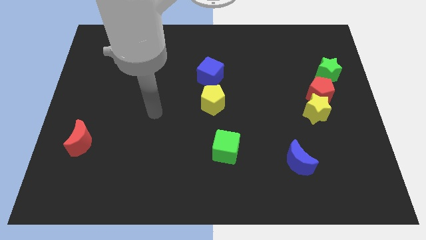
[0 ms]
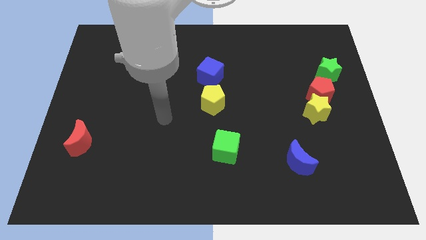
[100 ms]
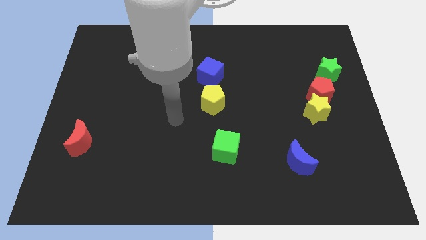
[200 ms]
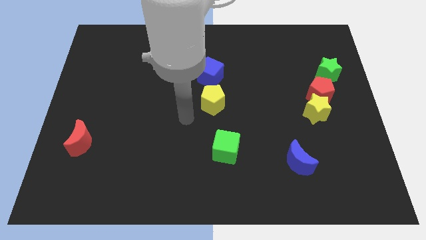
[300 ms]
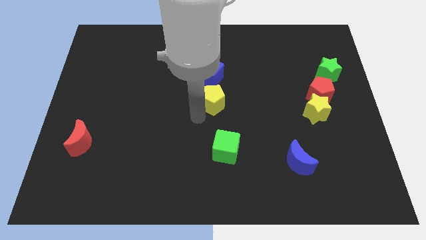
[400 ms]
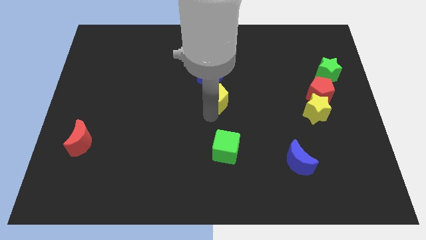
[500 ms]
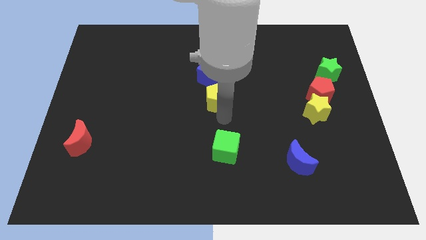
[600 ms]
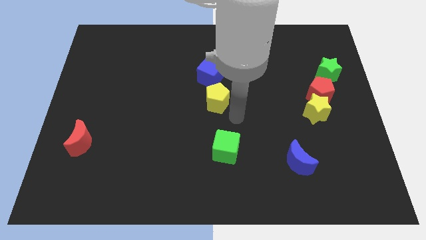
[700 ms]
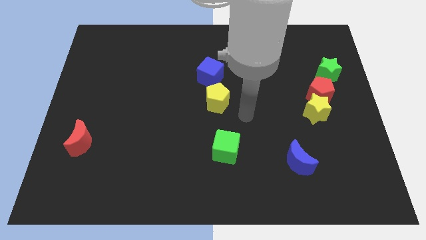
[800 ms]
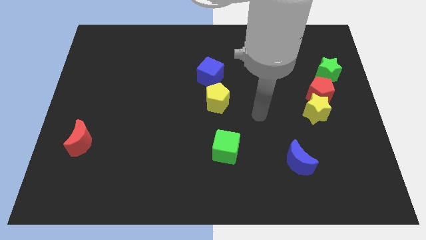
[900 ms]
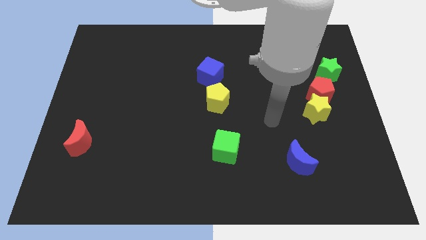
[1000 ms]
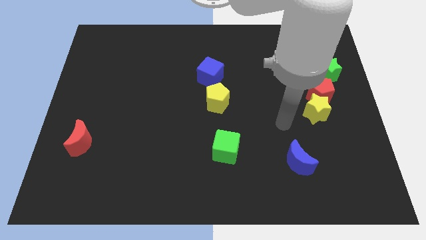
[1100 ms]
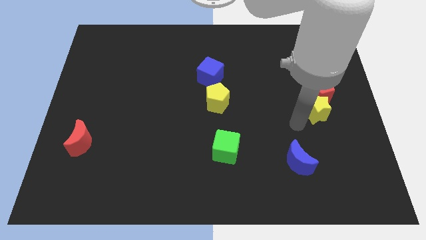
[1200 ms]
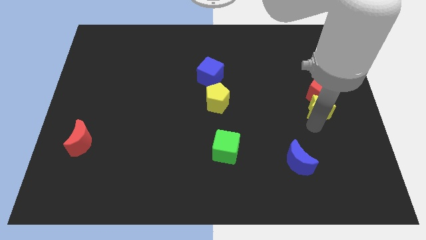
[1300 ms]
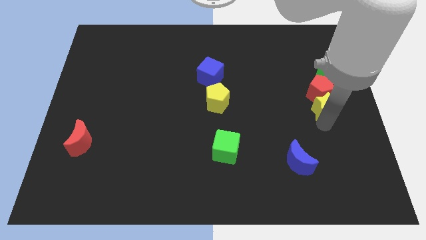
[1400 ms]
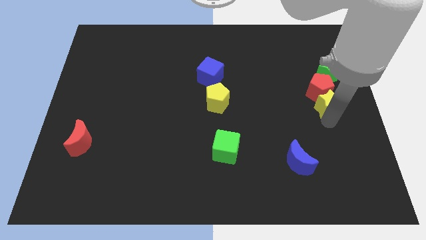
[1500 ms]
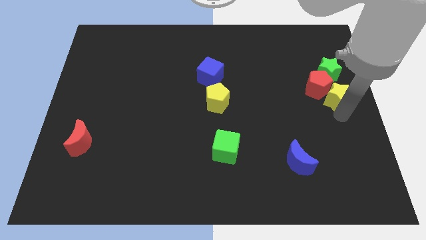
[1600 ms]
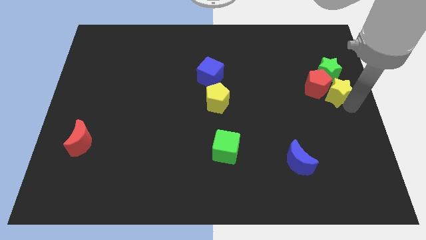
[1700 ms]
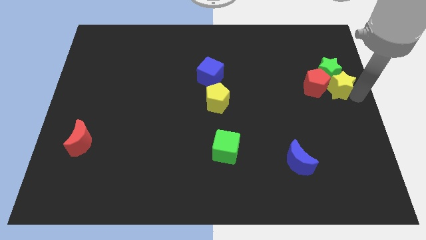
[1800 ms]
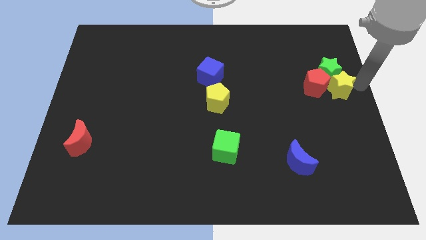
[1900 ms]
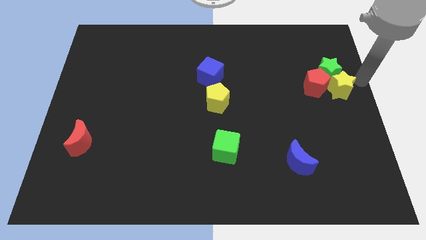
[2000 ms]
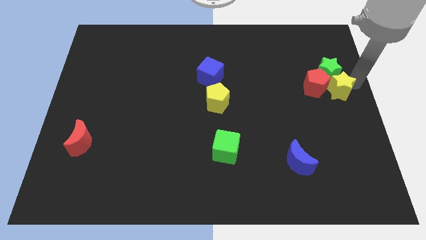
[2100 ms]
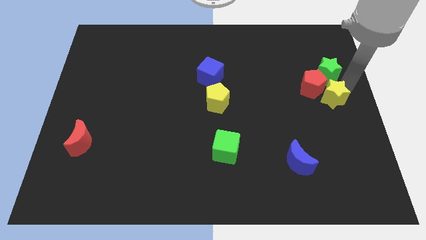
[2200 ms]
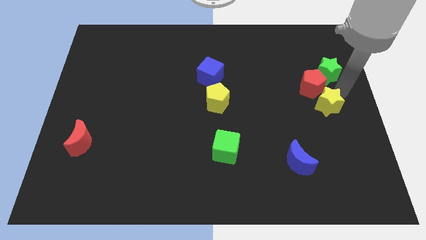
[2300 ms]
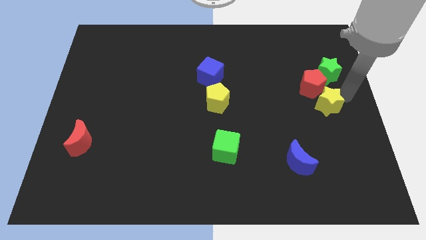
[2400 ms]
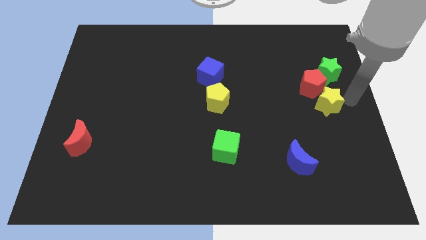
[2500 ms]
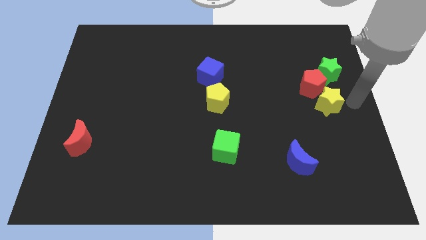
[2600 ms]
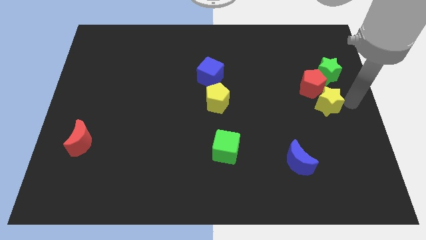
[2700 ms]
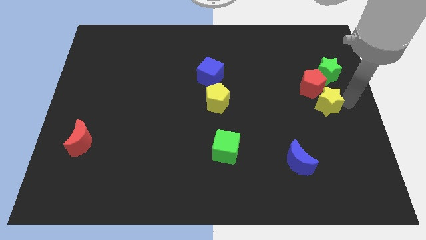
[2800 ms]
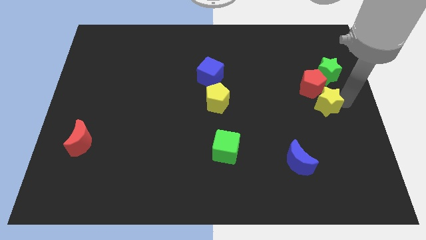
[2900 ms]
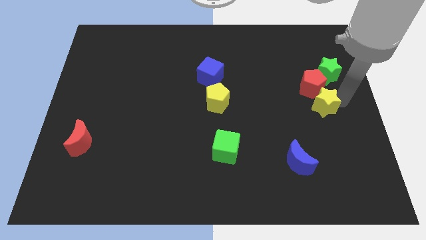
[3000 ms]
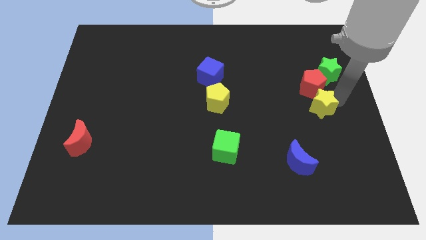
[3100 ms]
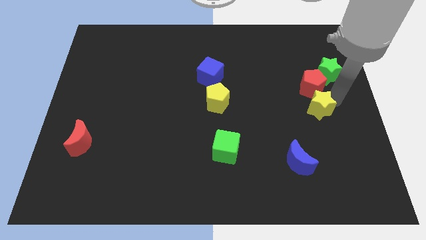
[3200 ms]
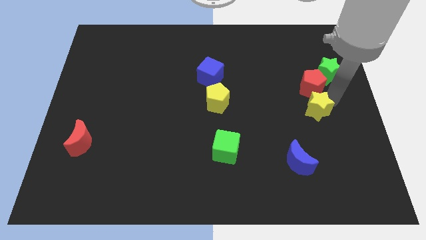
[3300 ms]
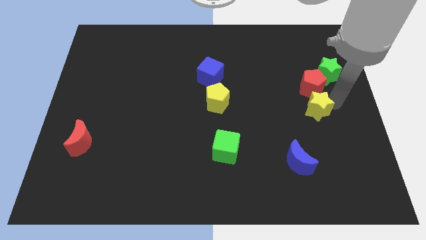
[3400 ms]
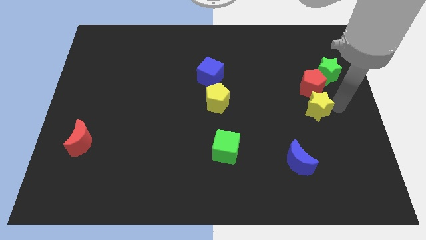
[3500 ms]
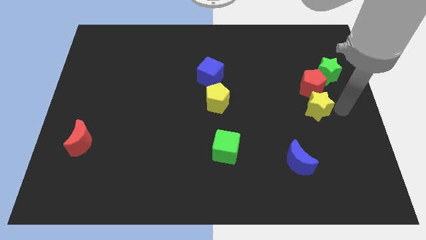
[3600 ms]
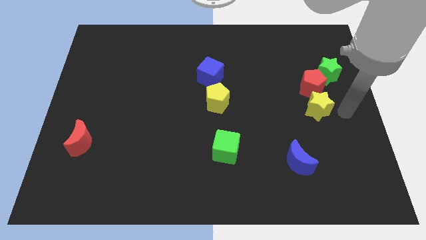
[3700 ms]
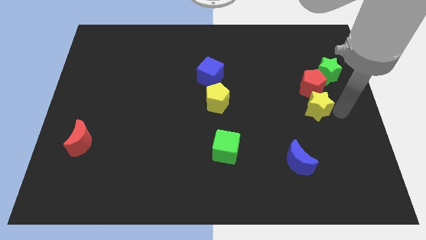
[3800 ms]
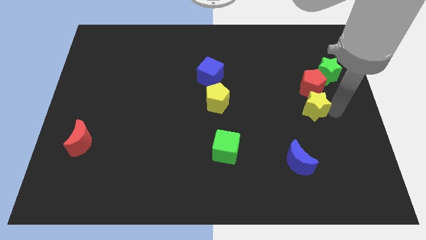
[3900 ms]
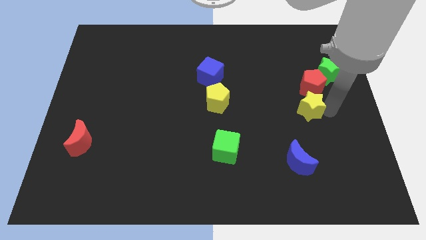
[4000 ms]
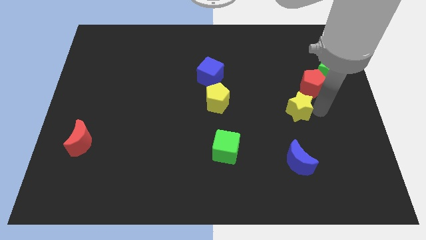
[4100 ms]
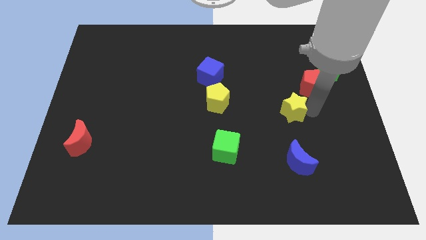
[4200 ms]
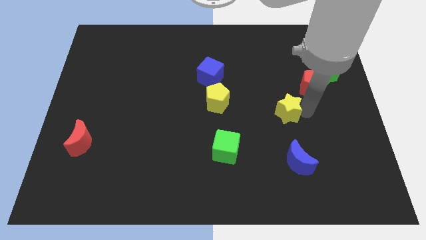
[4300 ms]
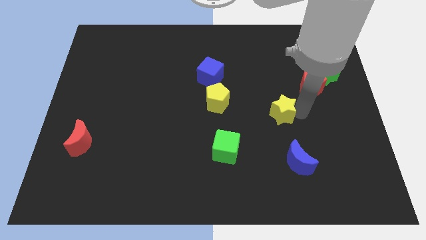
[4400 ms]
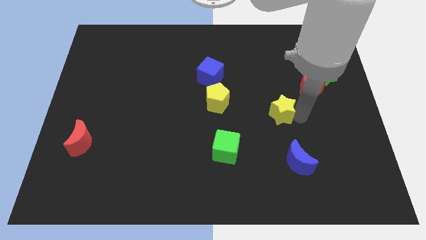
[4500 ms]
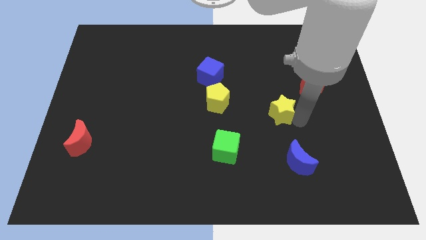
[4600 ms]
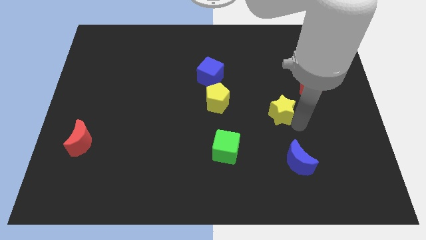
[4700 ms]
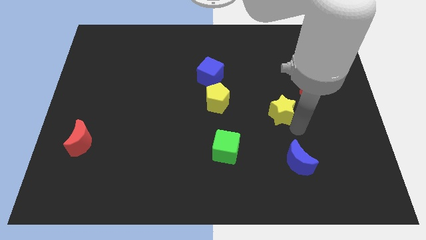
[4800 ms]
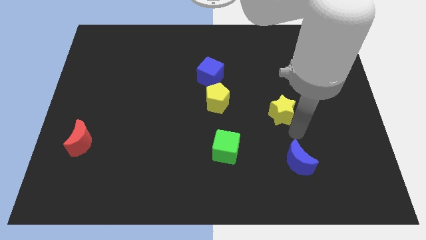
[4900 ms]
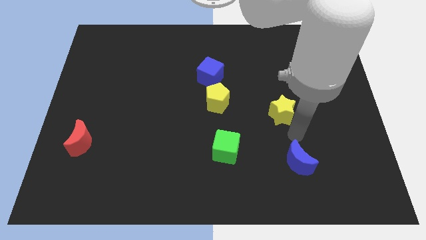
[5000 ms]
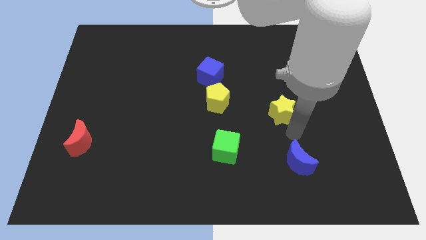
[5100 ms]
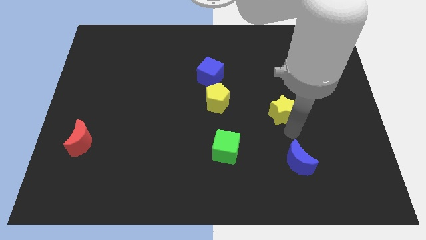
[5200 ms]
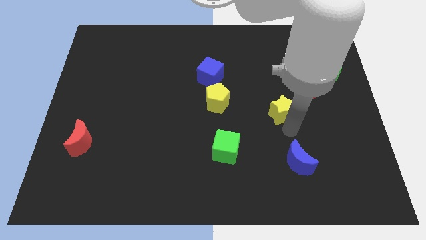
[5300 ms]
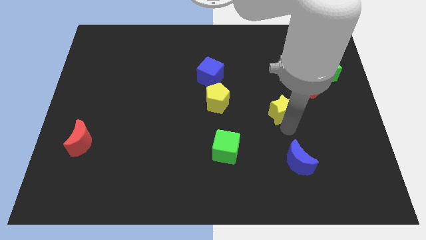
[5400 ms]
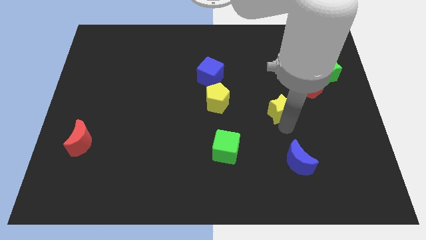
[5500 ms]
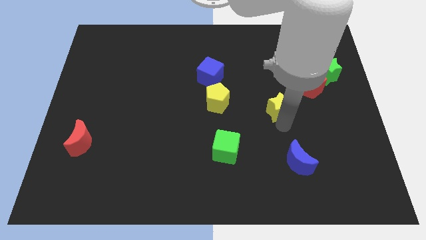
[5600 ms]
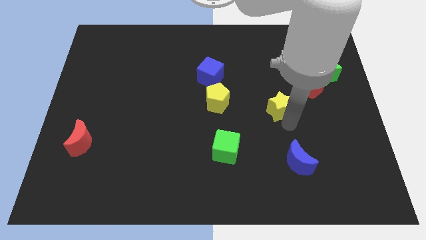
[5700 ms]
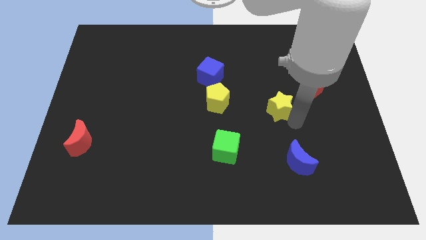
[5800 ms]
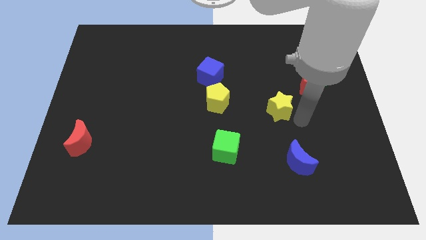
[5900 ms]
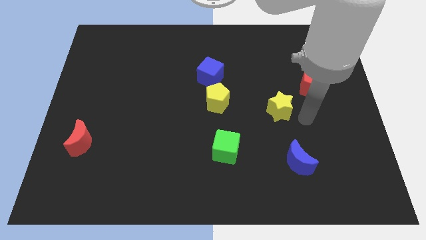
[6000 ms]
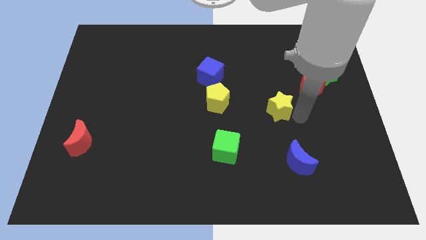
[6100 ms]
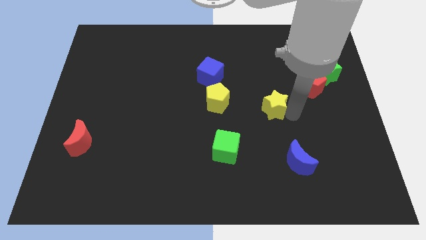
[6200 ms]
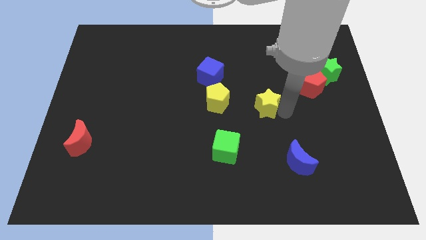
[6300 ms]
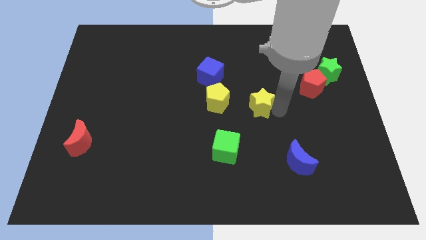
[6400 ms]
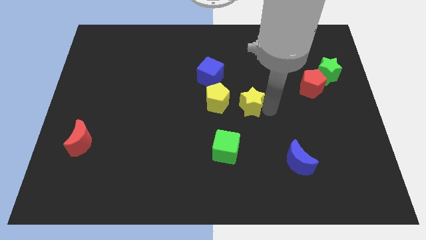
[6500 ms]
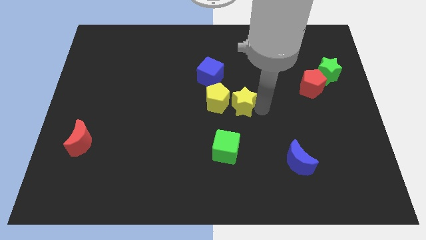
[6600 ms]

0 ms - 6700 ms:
put the yellow star to the bottom right of the blue cube

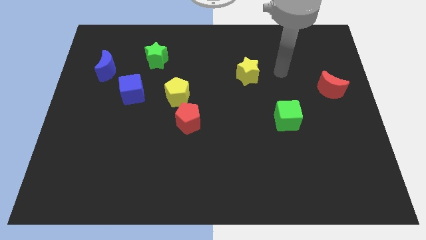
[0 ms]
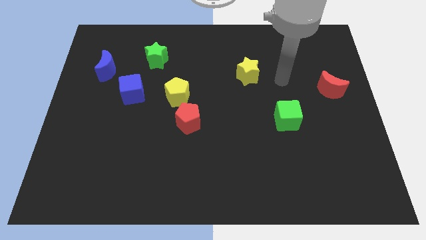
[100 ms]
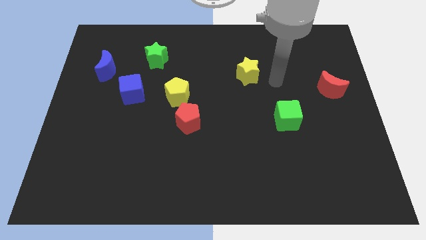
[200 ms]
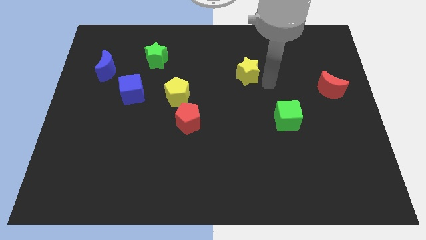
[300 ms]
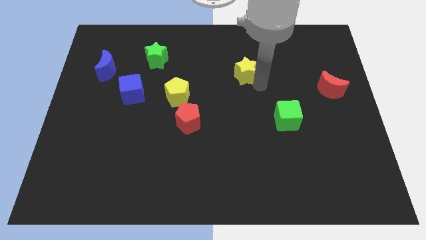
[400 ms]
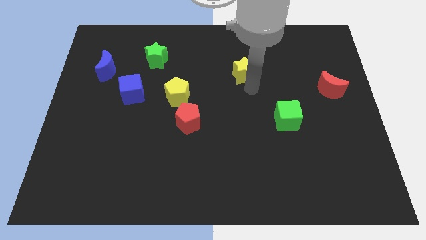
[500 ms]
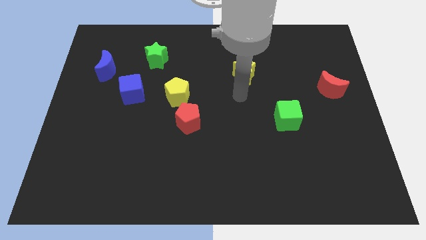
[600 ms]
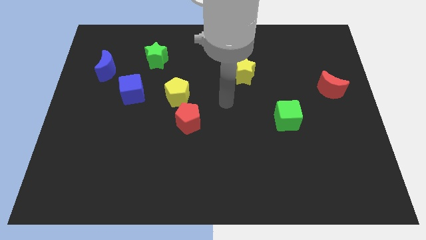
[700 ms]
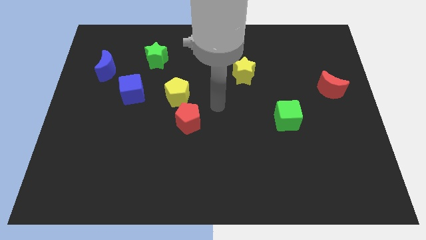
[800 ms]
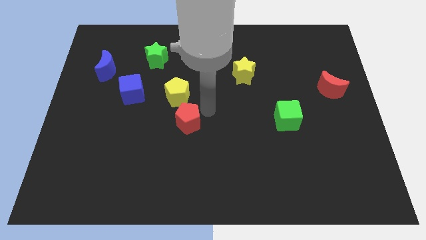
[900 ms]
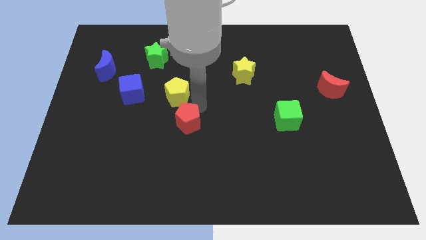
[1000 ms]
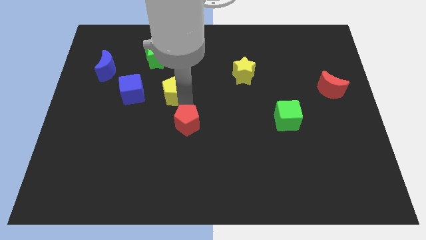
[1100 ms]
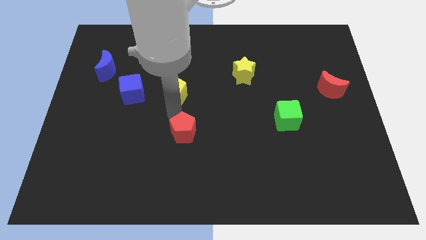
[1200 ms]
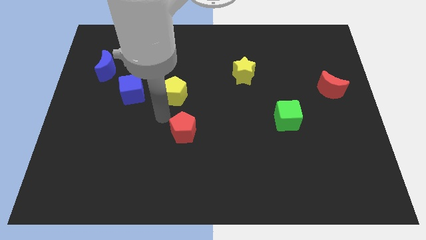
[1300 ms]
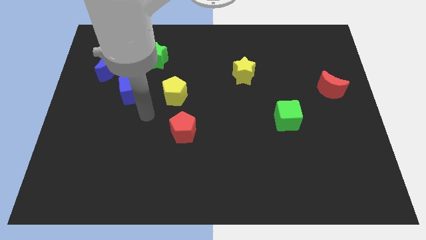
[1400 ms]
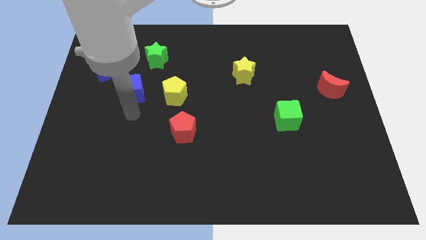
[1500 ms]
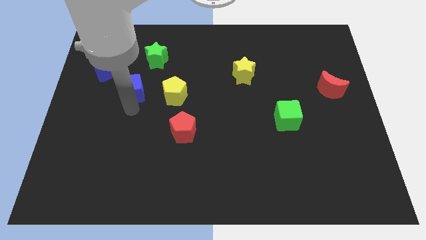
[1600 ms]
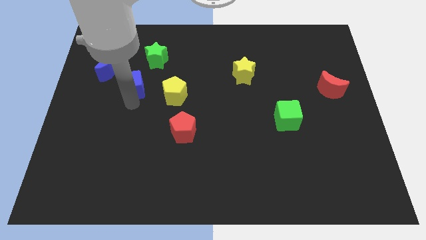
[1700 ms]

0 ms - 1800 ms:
push the blue cube to the bottom left side of the green star
